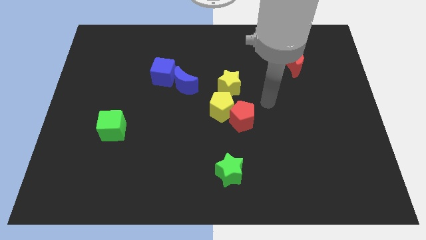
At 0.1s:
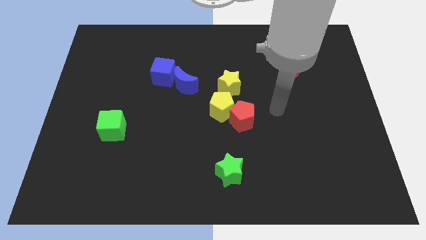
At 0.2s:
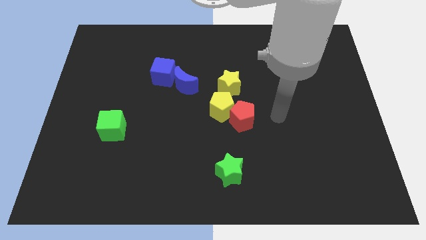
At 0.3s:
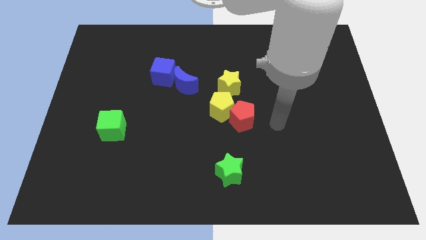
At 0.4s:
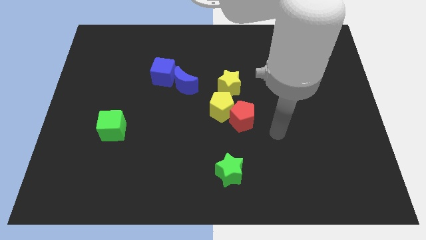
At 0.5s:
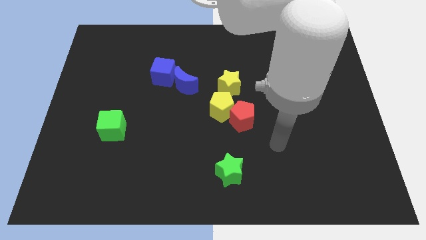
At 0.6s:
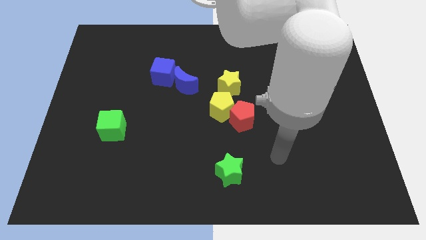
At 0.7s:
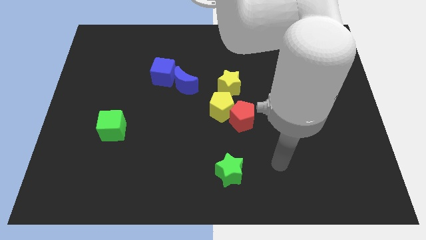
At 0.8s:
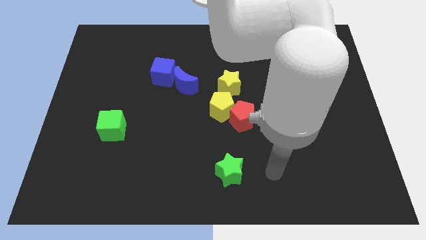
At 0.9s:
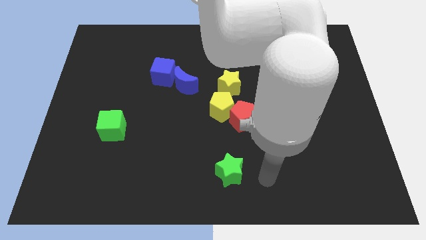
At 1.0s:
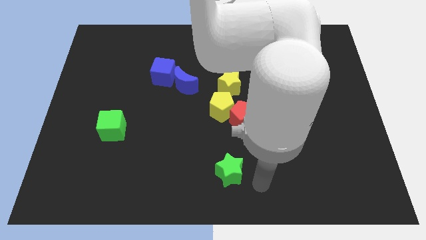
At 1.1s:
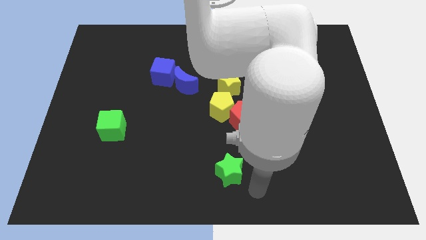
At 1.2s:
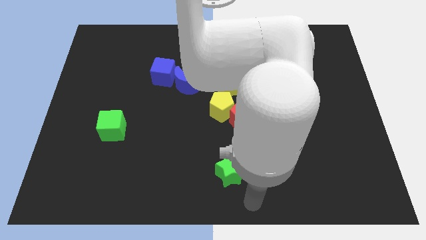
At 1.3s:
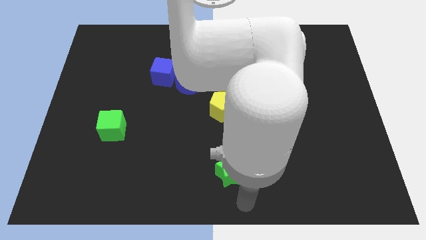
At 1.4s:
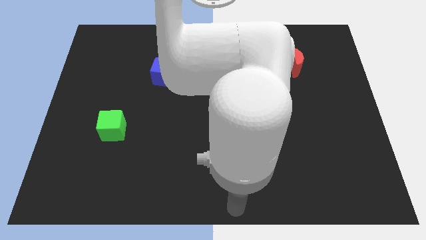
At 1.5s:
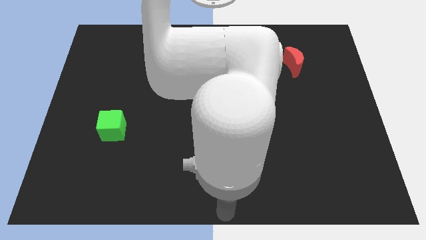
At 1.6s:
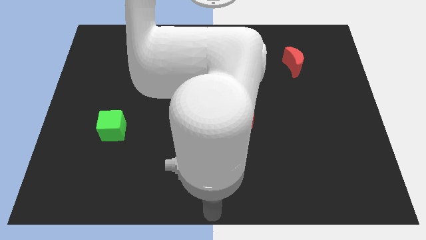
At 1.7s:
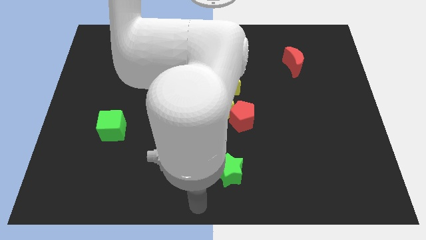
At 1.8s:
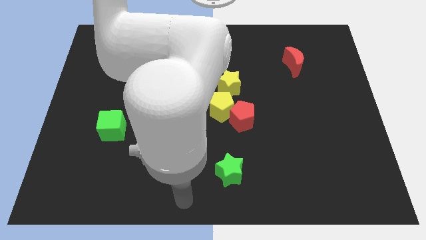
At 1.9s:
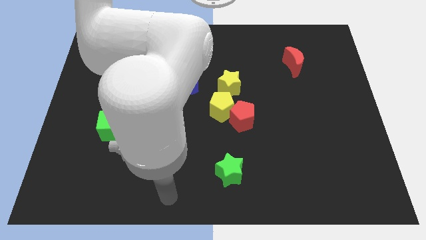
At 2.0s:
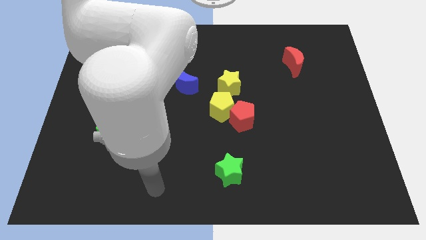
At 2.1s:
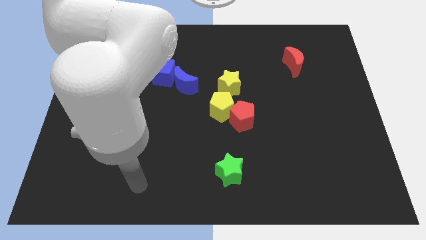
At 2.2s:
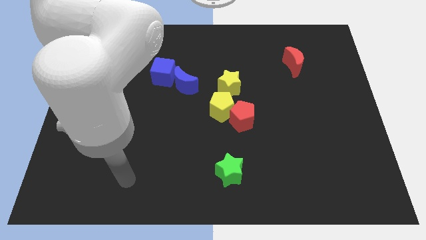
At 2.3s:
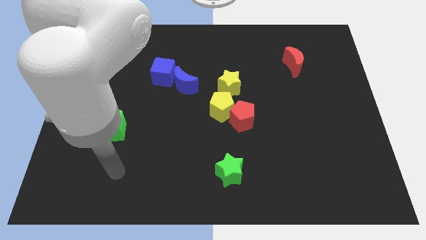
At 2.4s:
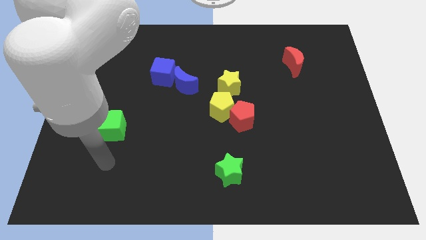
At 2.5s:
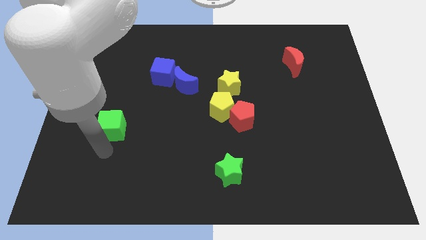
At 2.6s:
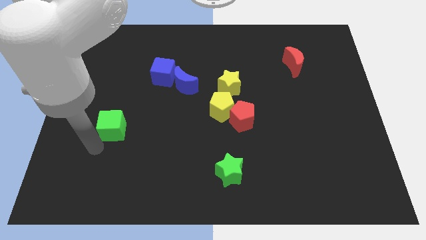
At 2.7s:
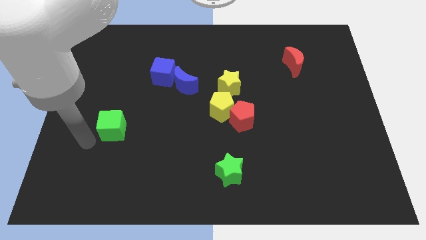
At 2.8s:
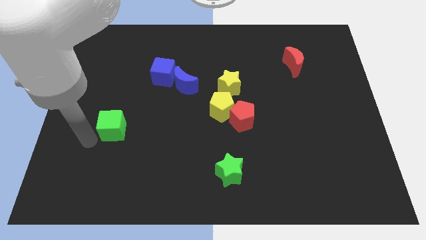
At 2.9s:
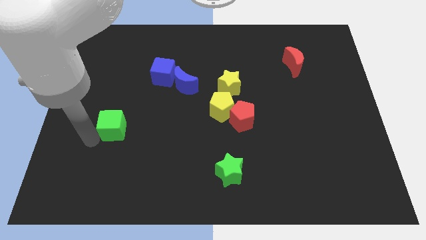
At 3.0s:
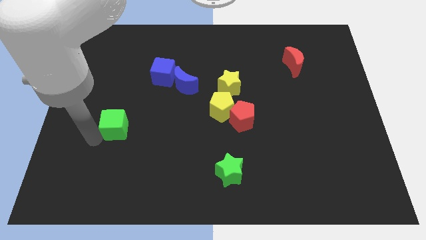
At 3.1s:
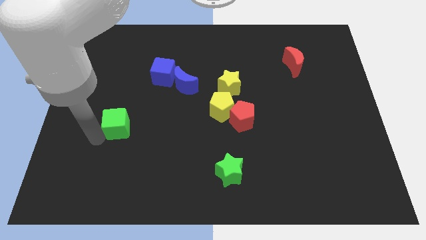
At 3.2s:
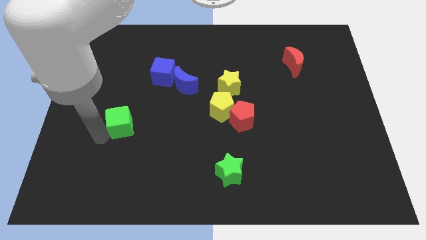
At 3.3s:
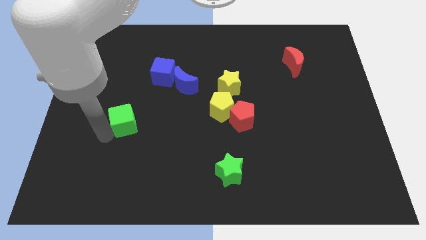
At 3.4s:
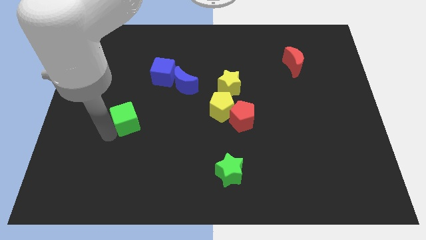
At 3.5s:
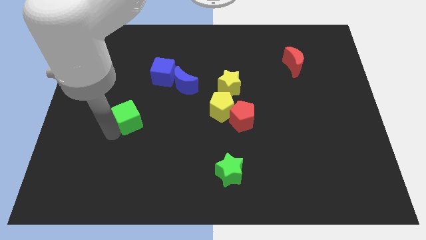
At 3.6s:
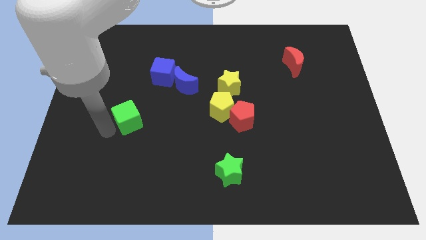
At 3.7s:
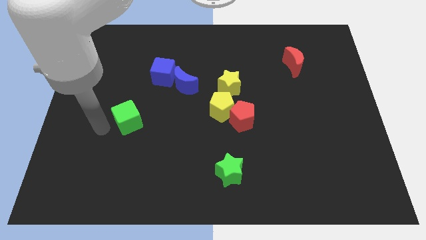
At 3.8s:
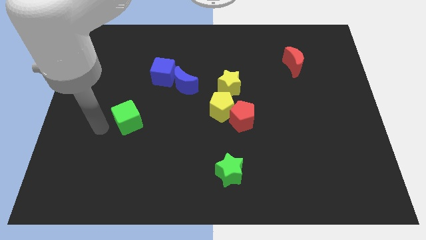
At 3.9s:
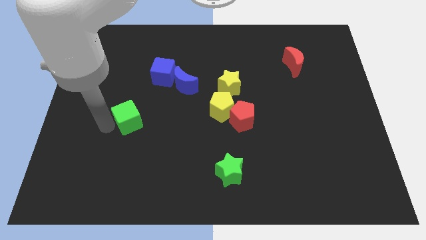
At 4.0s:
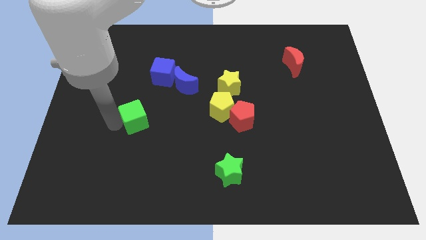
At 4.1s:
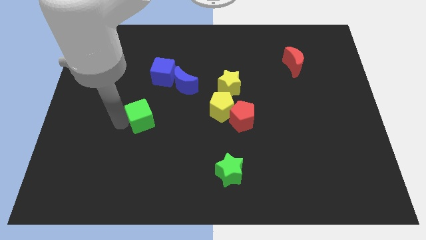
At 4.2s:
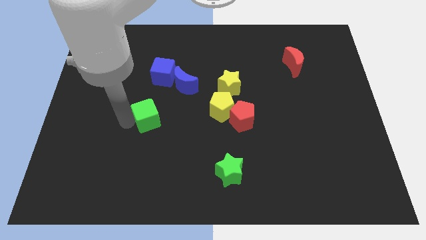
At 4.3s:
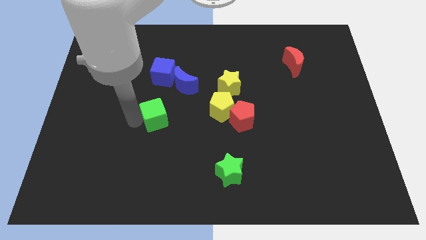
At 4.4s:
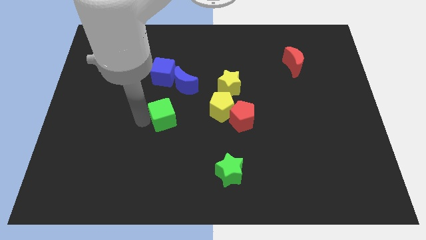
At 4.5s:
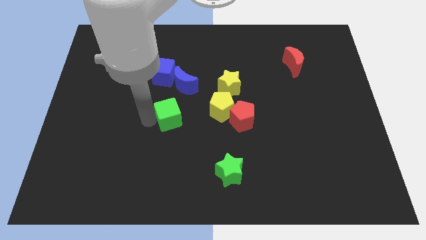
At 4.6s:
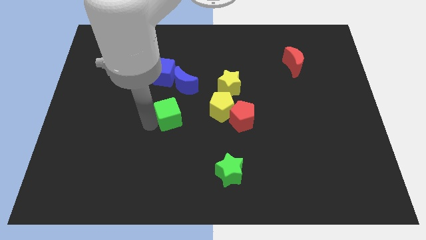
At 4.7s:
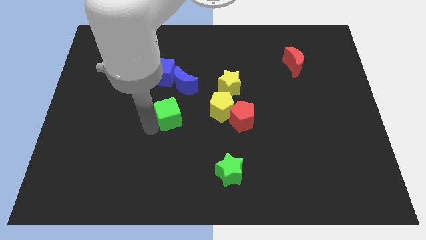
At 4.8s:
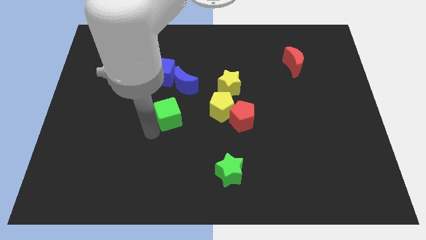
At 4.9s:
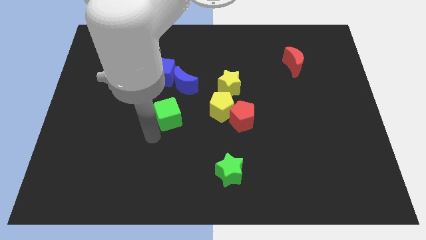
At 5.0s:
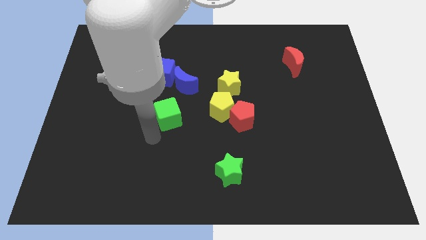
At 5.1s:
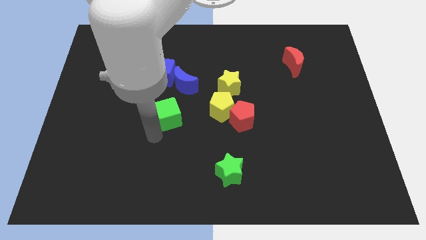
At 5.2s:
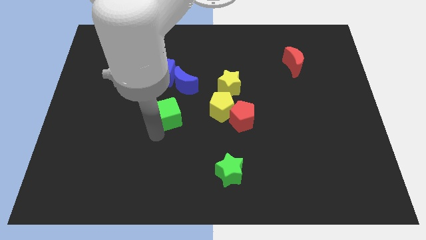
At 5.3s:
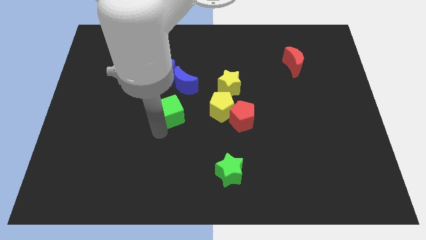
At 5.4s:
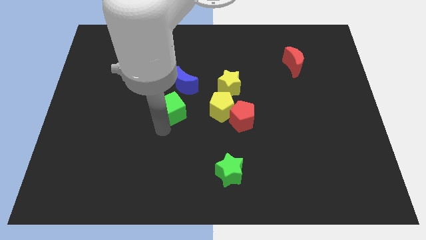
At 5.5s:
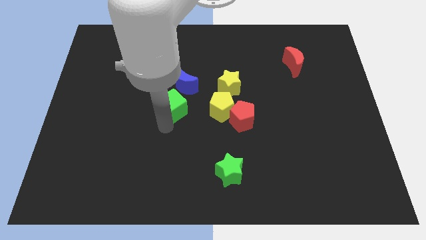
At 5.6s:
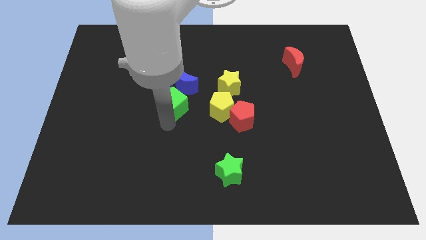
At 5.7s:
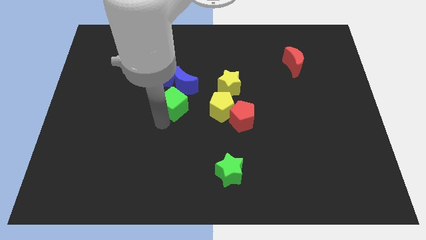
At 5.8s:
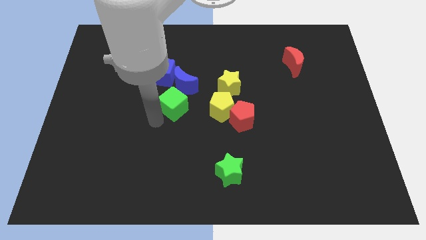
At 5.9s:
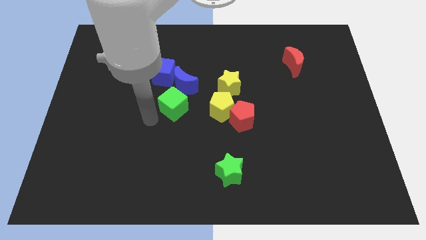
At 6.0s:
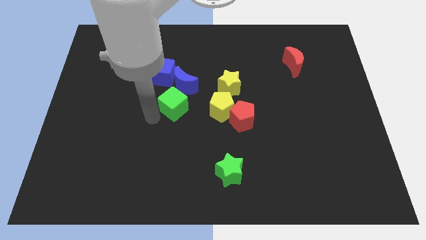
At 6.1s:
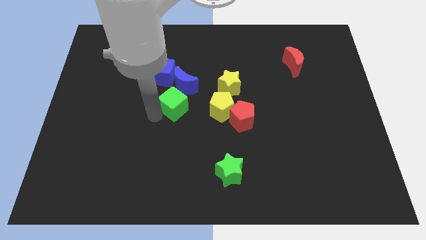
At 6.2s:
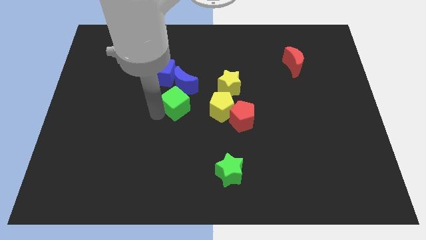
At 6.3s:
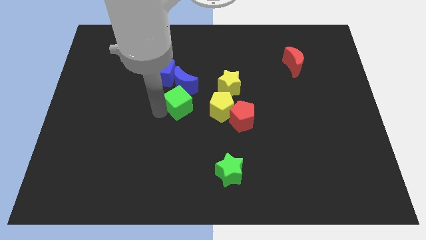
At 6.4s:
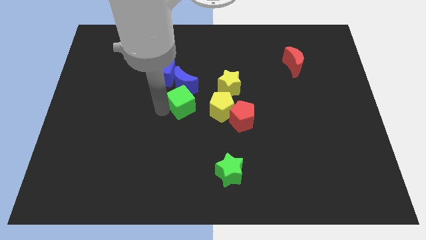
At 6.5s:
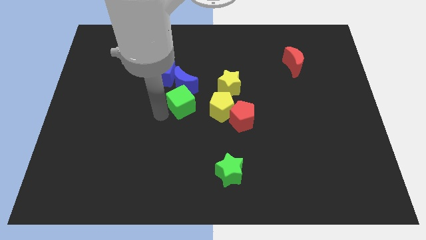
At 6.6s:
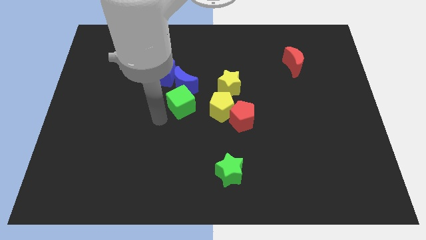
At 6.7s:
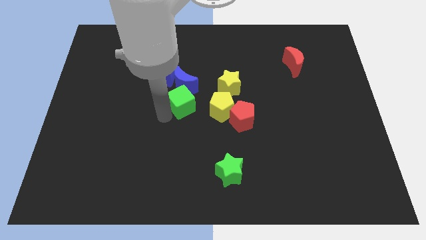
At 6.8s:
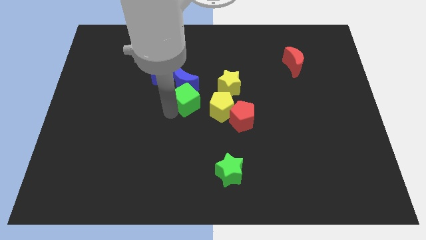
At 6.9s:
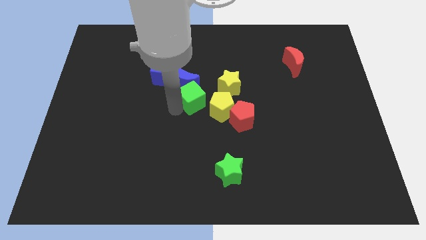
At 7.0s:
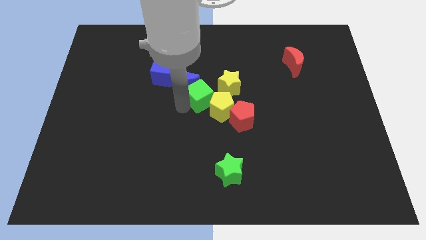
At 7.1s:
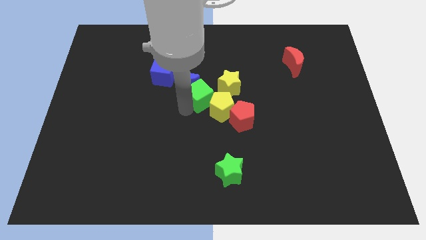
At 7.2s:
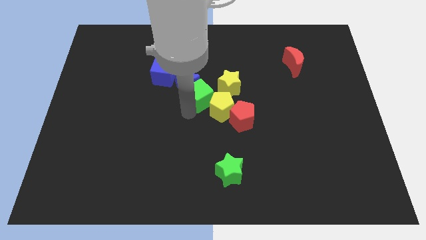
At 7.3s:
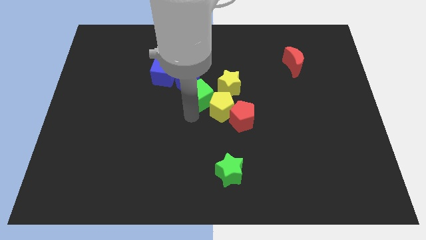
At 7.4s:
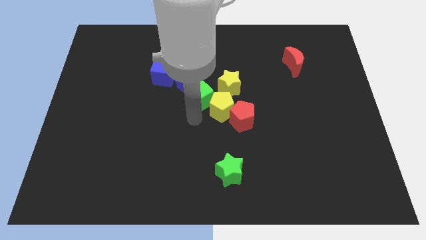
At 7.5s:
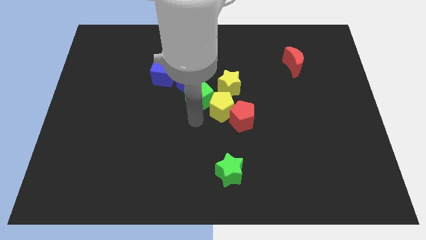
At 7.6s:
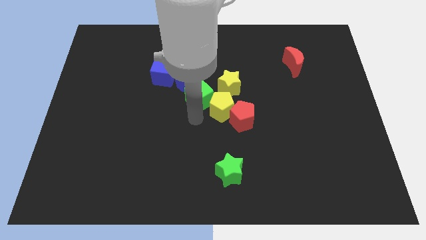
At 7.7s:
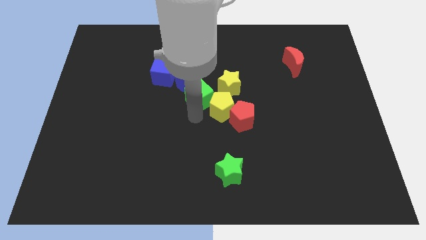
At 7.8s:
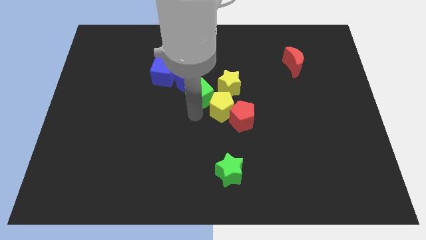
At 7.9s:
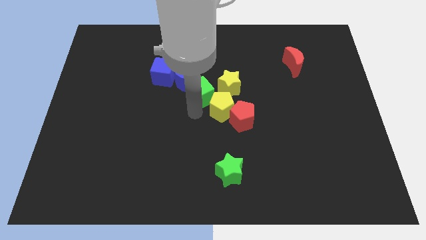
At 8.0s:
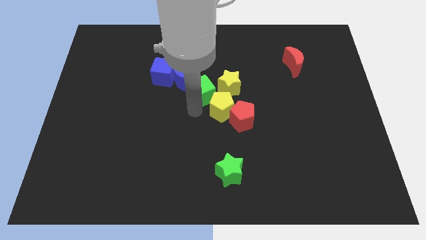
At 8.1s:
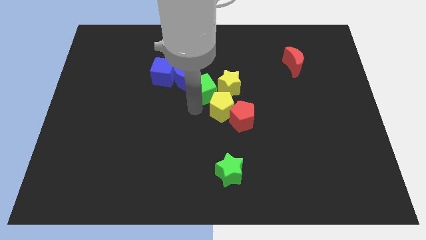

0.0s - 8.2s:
push the green cube upwards and right diagonally

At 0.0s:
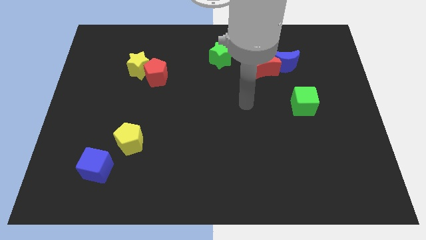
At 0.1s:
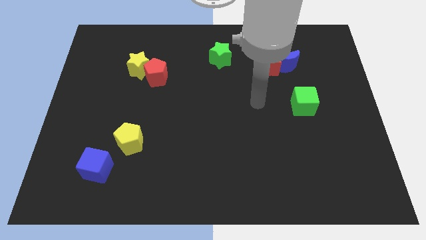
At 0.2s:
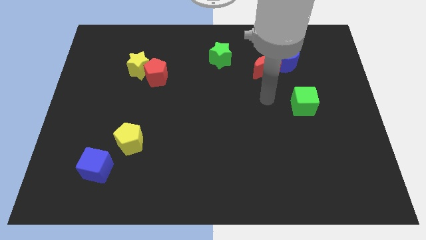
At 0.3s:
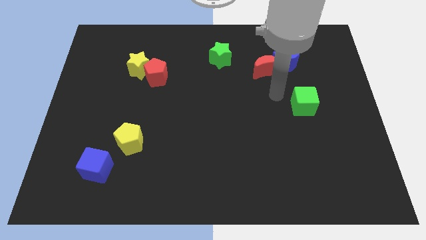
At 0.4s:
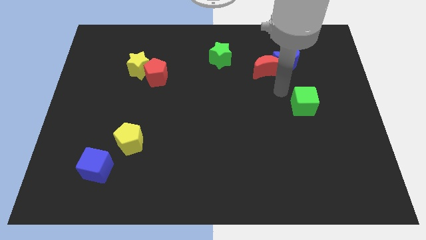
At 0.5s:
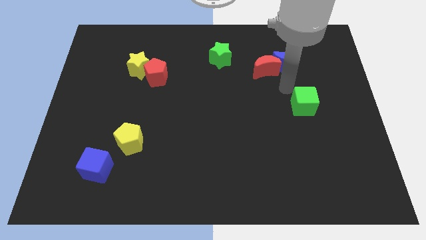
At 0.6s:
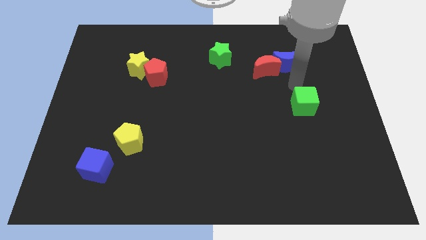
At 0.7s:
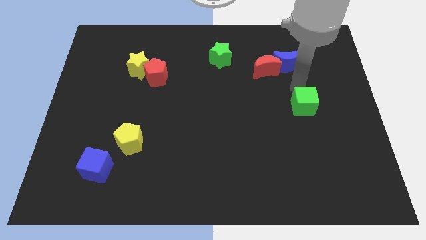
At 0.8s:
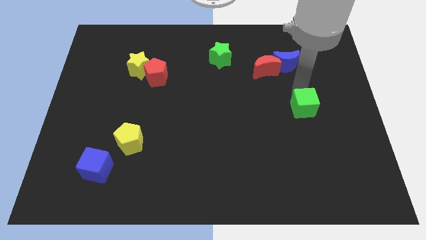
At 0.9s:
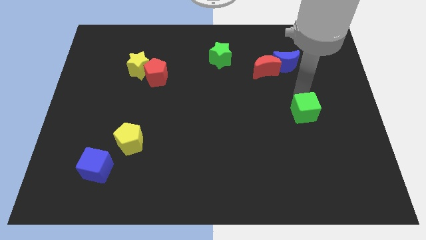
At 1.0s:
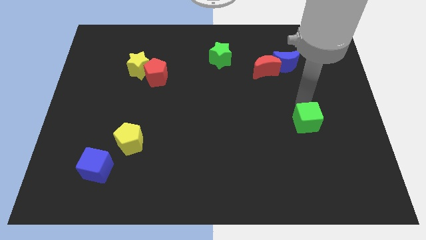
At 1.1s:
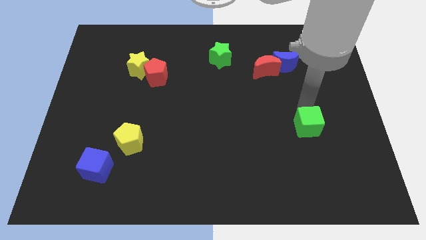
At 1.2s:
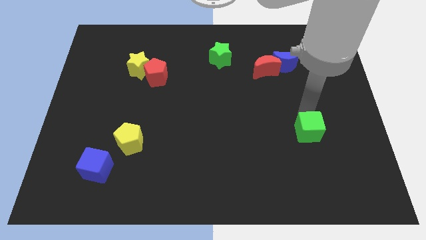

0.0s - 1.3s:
move the green cube down a bit
